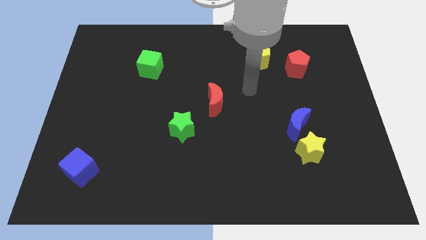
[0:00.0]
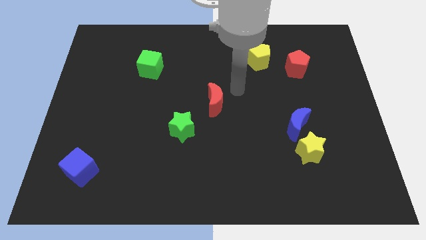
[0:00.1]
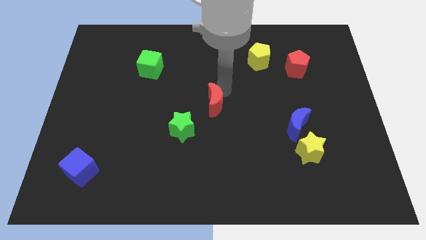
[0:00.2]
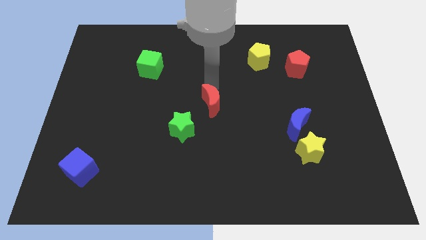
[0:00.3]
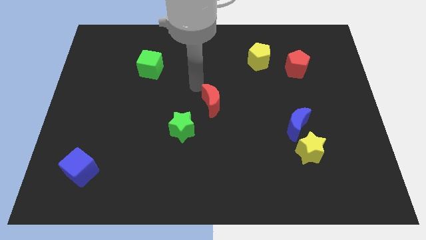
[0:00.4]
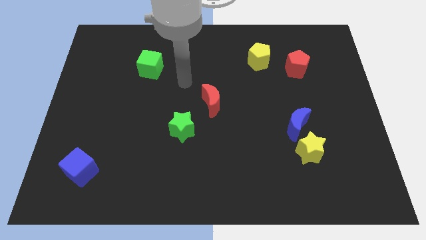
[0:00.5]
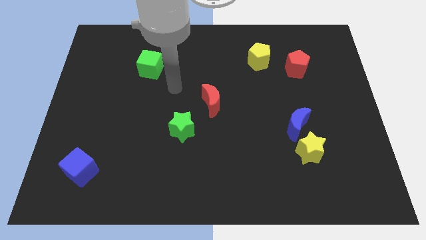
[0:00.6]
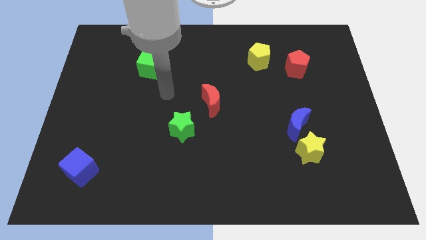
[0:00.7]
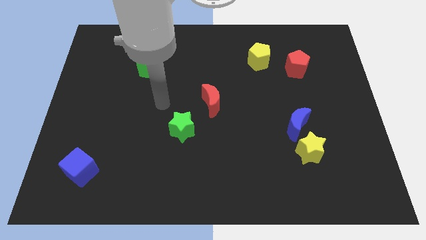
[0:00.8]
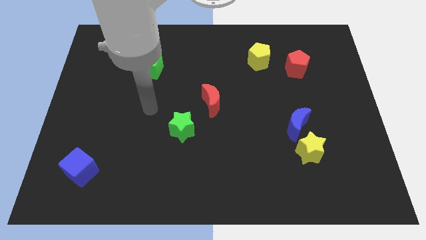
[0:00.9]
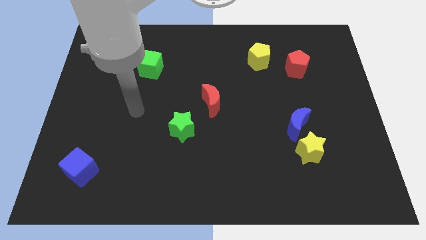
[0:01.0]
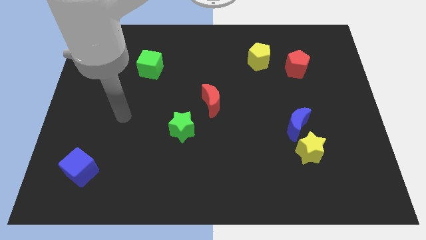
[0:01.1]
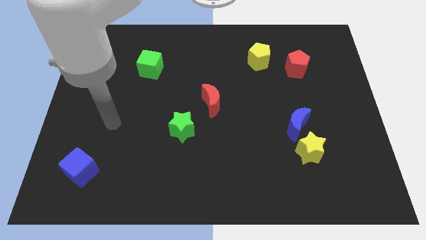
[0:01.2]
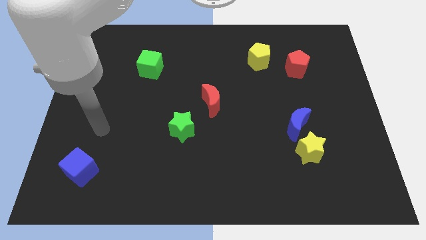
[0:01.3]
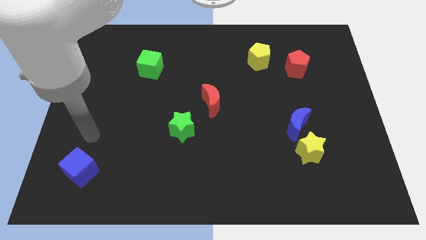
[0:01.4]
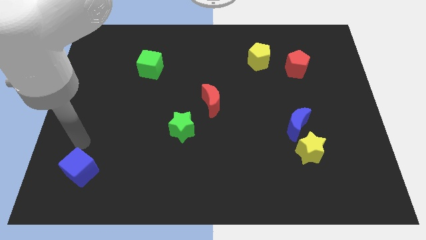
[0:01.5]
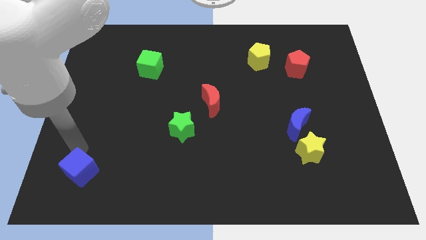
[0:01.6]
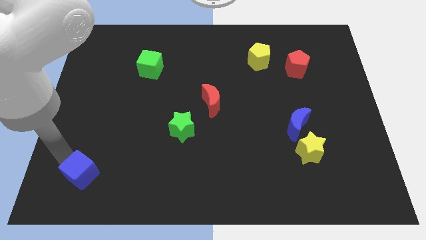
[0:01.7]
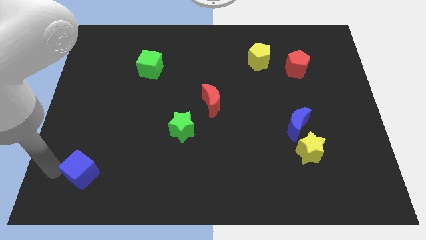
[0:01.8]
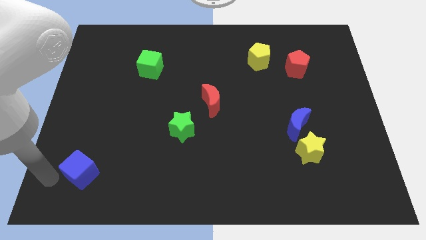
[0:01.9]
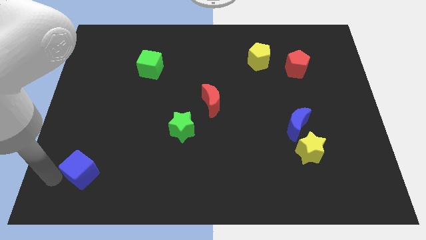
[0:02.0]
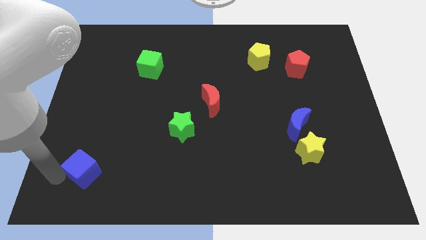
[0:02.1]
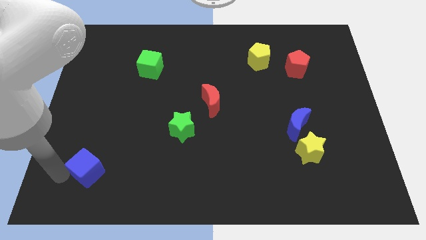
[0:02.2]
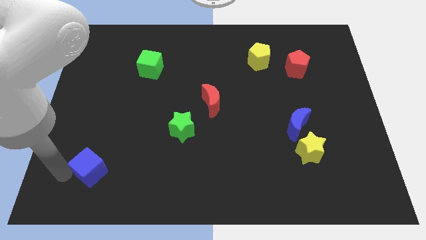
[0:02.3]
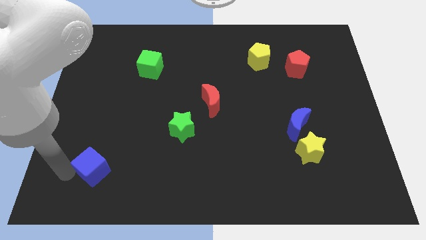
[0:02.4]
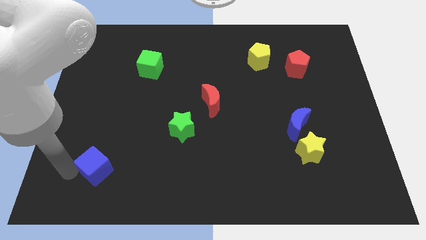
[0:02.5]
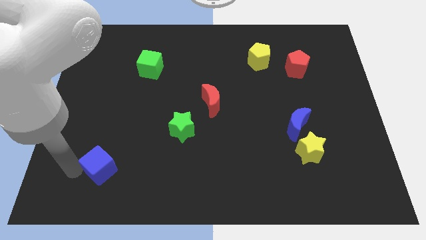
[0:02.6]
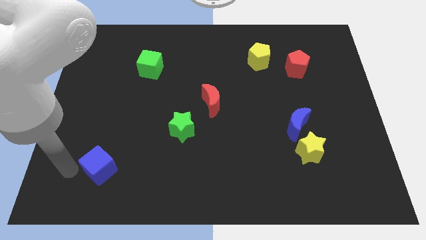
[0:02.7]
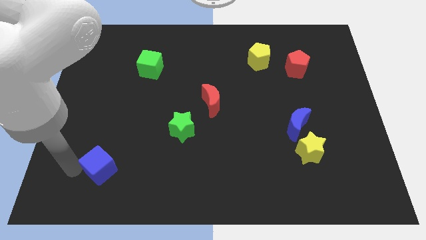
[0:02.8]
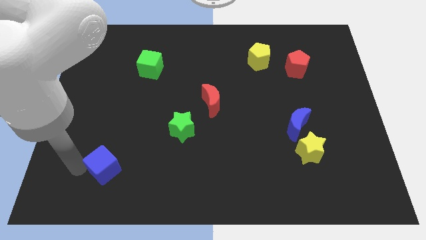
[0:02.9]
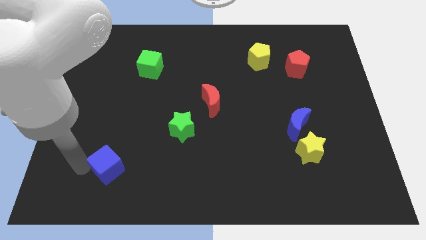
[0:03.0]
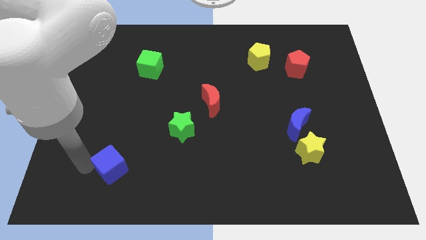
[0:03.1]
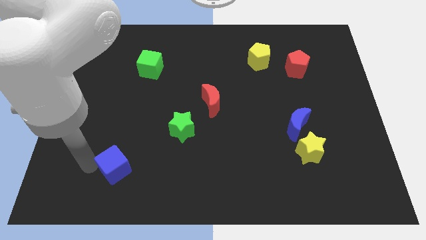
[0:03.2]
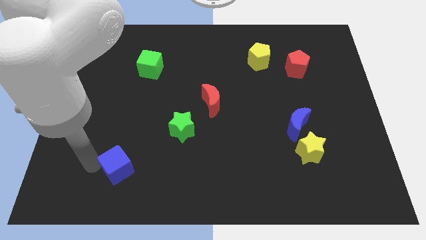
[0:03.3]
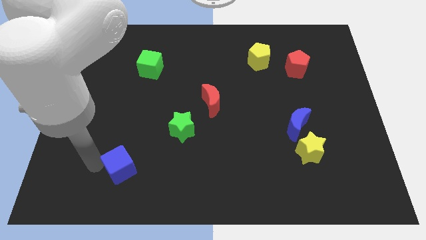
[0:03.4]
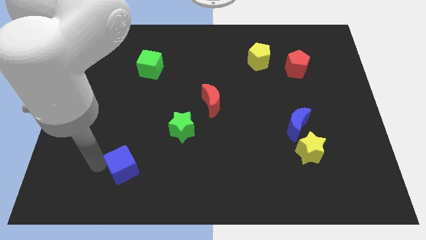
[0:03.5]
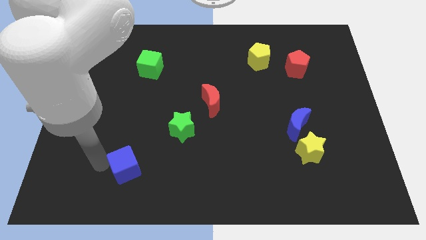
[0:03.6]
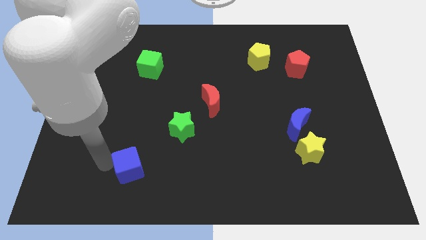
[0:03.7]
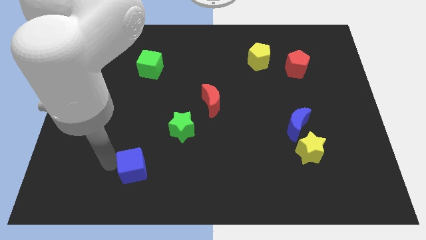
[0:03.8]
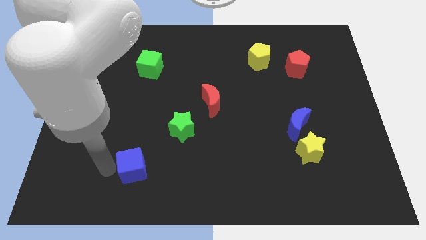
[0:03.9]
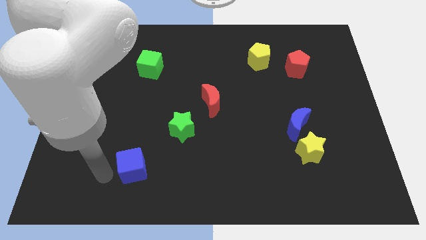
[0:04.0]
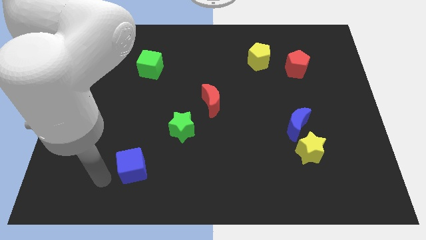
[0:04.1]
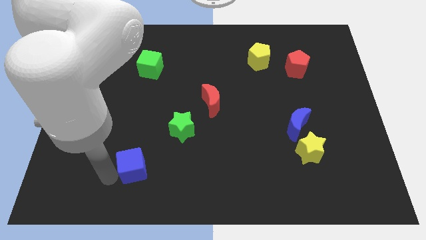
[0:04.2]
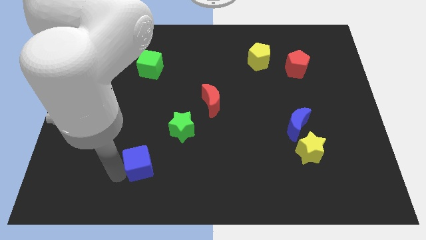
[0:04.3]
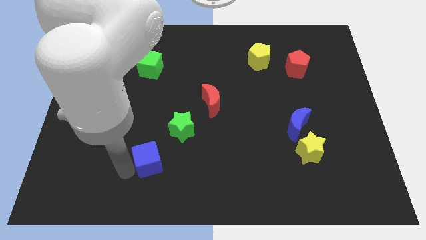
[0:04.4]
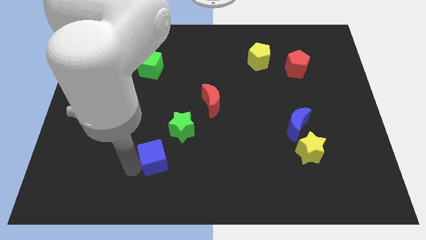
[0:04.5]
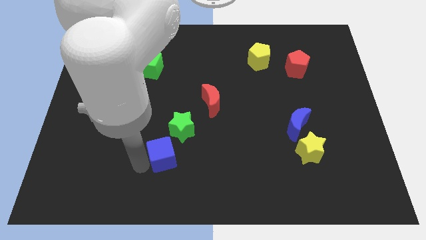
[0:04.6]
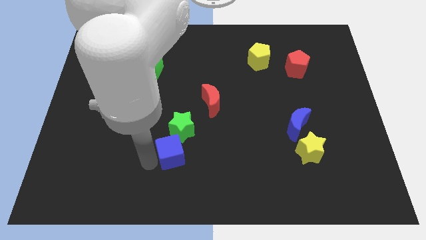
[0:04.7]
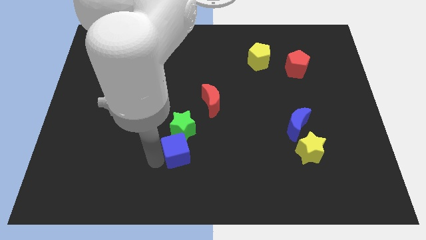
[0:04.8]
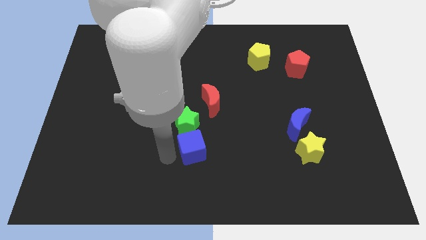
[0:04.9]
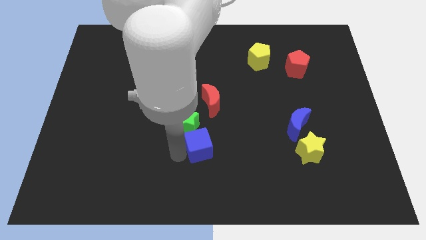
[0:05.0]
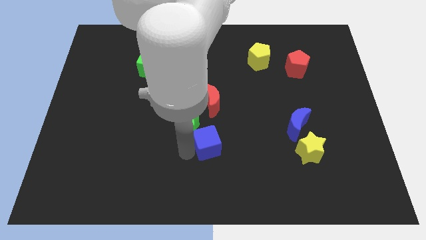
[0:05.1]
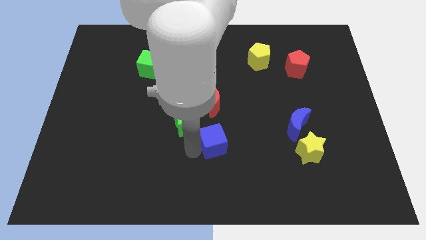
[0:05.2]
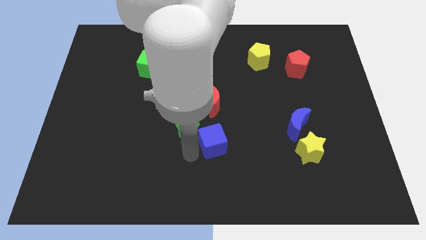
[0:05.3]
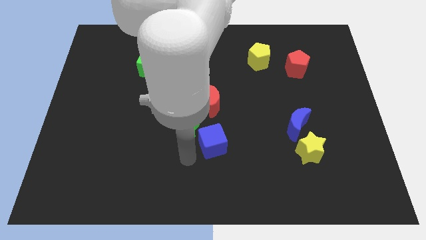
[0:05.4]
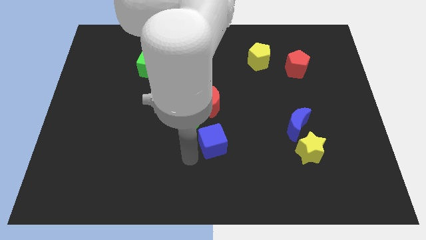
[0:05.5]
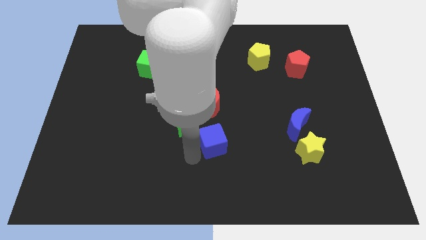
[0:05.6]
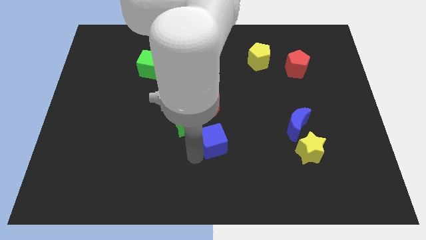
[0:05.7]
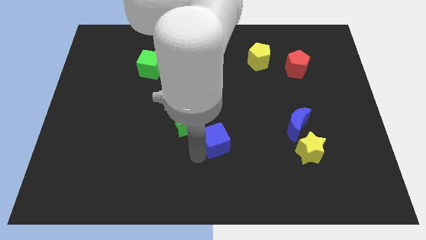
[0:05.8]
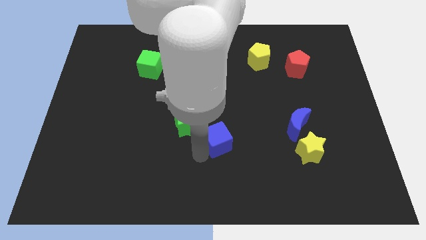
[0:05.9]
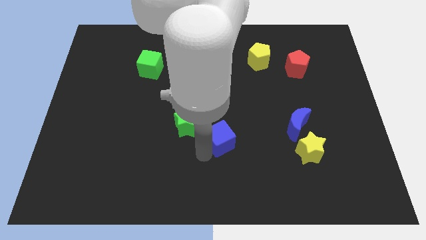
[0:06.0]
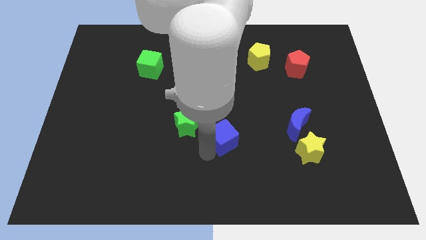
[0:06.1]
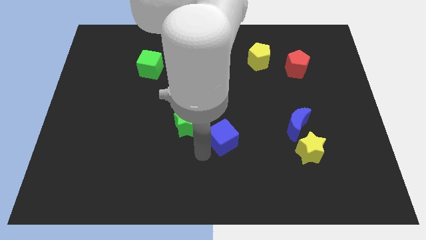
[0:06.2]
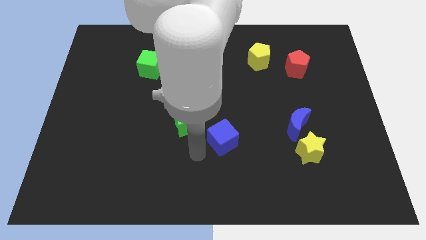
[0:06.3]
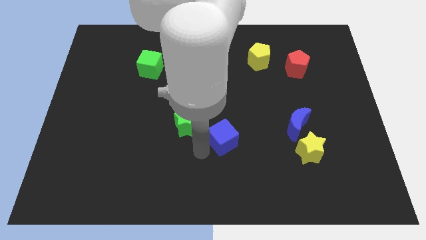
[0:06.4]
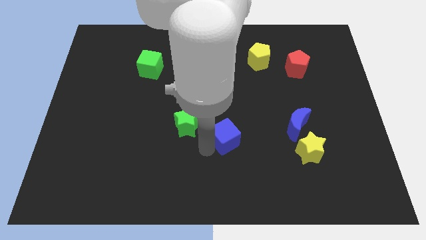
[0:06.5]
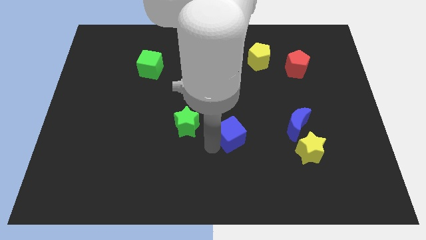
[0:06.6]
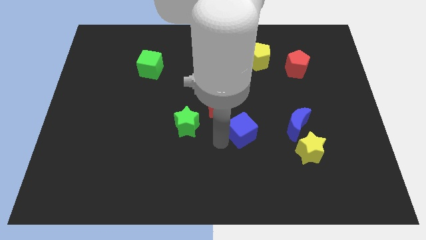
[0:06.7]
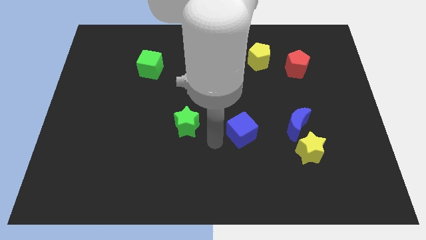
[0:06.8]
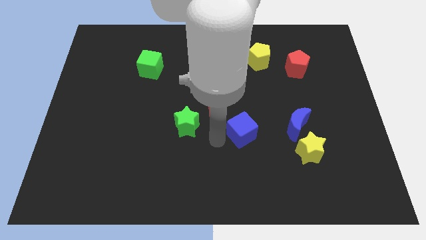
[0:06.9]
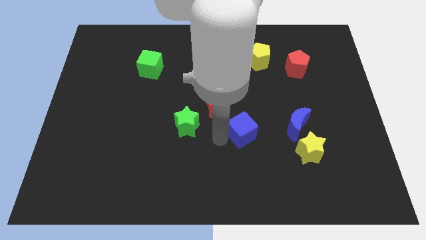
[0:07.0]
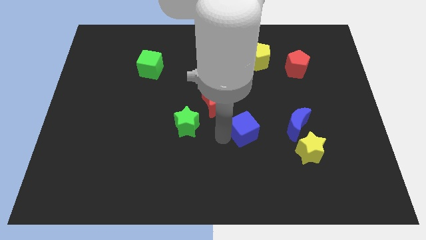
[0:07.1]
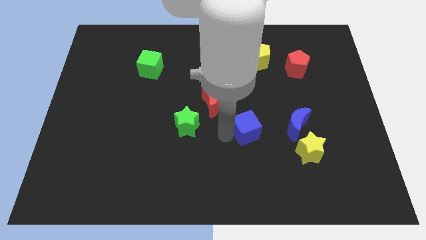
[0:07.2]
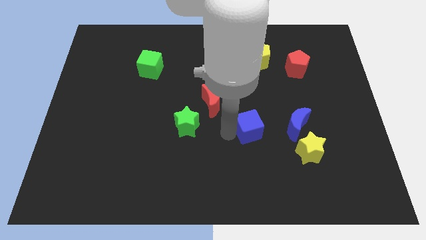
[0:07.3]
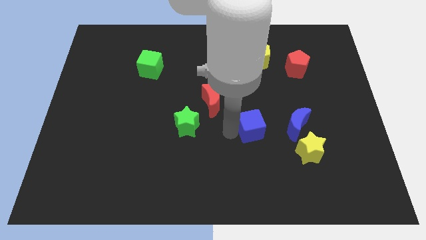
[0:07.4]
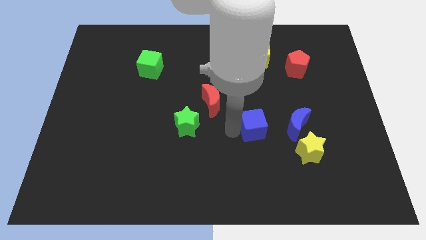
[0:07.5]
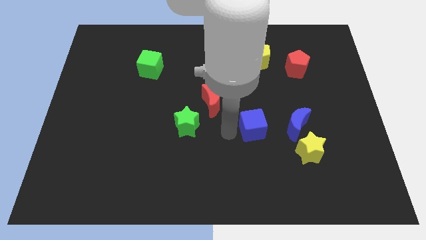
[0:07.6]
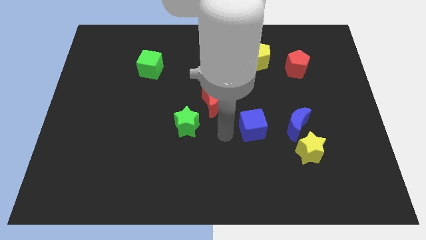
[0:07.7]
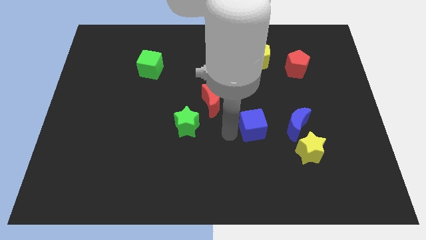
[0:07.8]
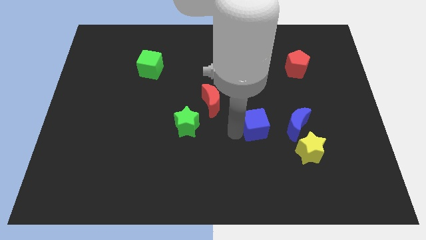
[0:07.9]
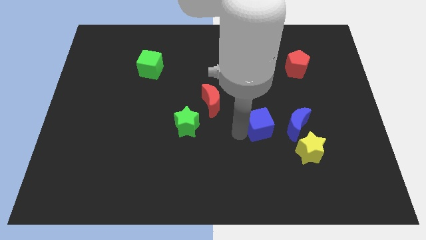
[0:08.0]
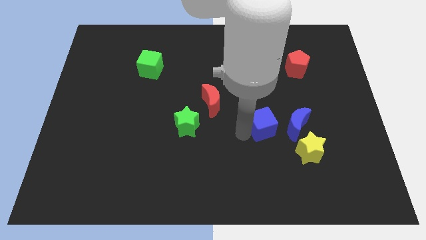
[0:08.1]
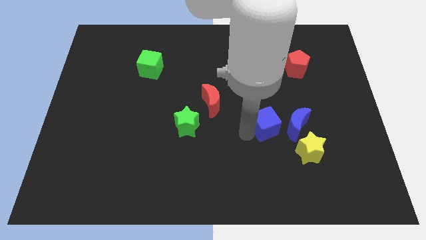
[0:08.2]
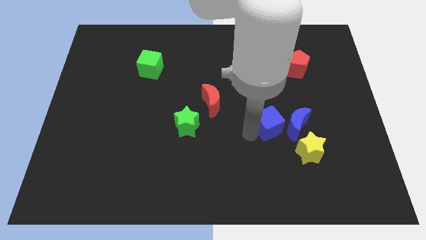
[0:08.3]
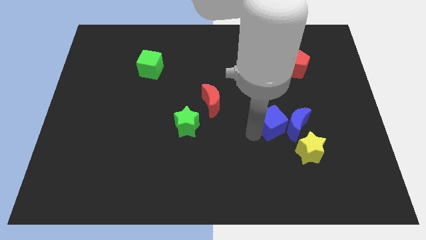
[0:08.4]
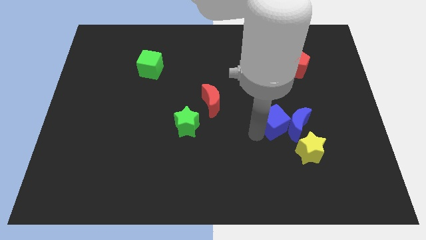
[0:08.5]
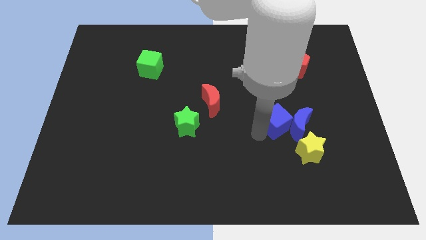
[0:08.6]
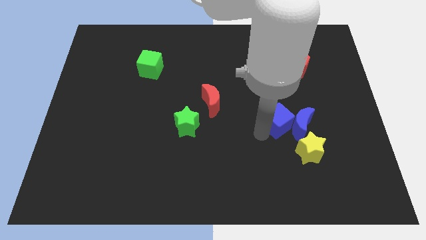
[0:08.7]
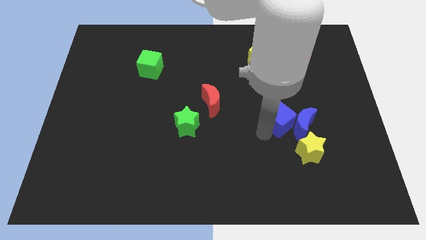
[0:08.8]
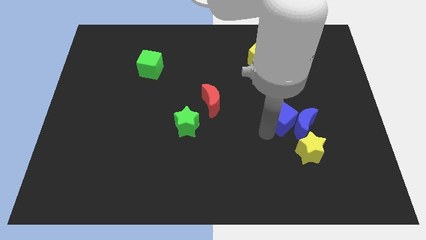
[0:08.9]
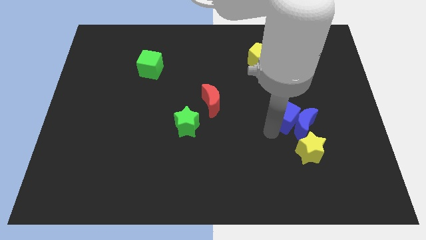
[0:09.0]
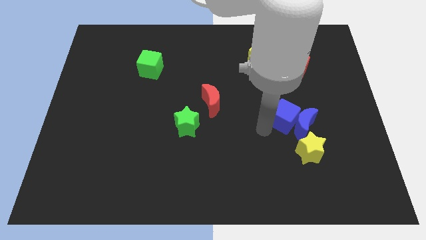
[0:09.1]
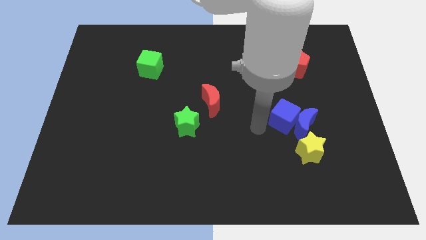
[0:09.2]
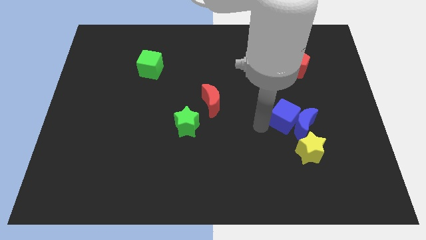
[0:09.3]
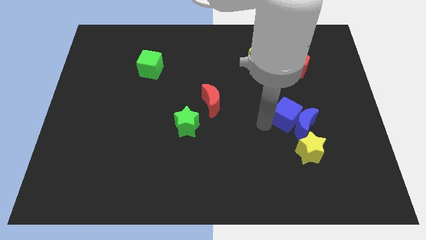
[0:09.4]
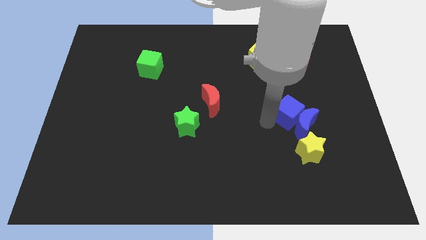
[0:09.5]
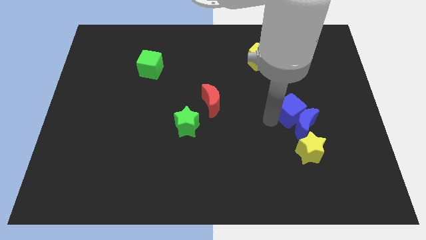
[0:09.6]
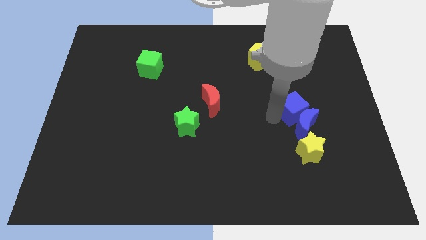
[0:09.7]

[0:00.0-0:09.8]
move the blue cube diagonally up and to the right of the blue moon
